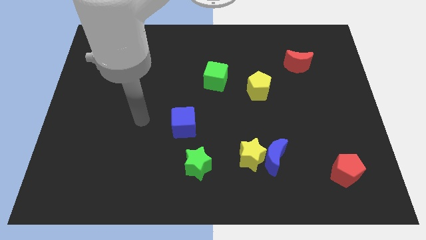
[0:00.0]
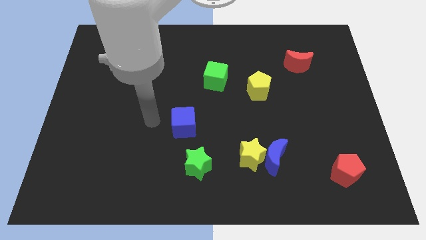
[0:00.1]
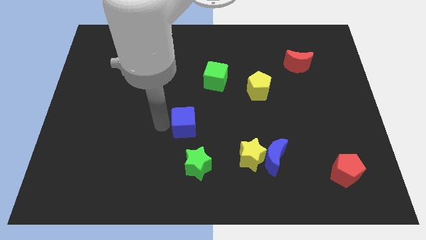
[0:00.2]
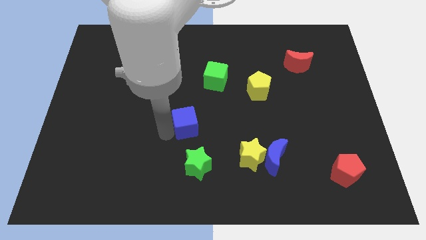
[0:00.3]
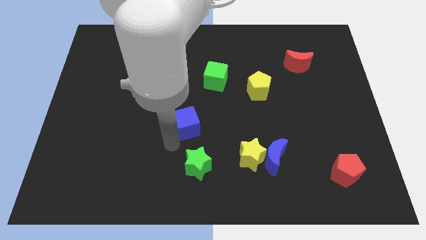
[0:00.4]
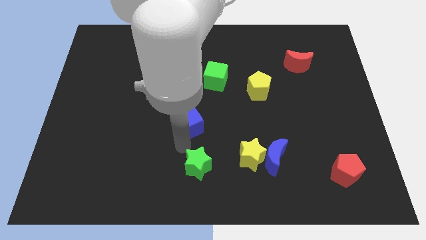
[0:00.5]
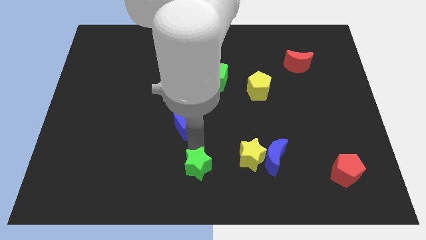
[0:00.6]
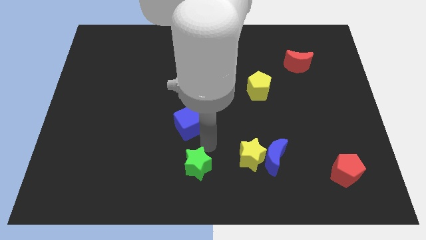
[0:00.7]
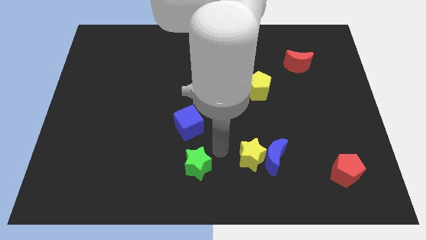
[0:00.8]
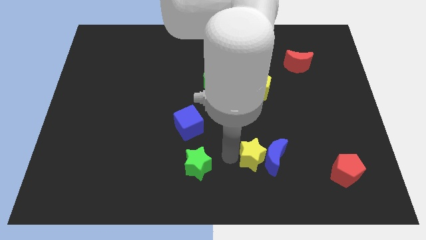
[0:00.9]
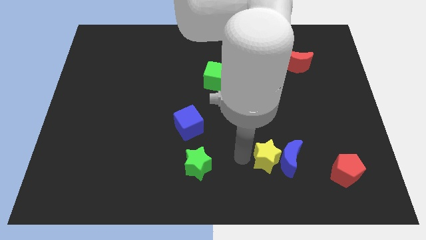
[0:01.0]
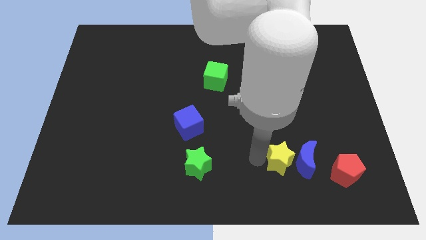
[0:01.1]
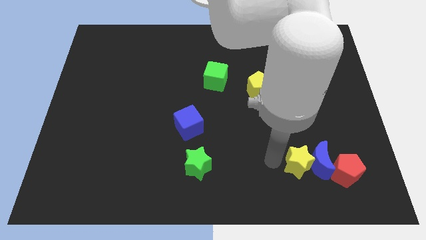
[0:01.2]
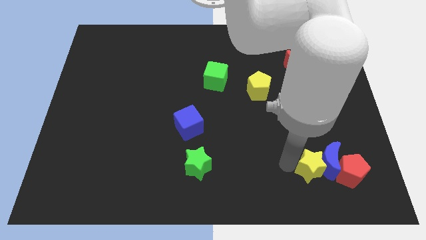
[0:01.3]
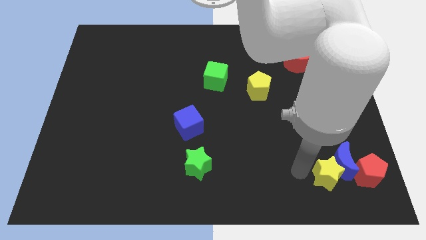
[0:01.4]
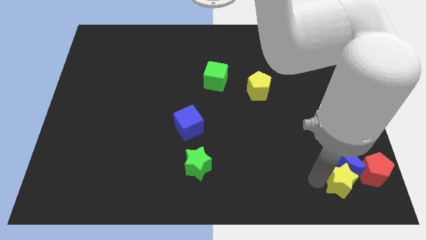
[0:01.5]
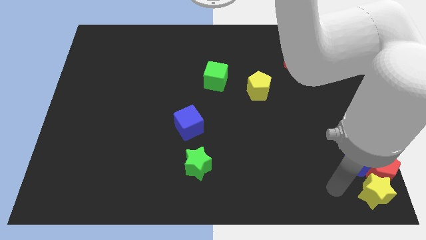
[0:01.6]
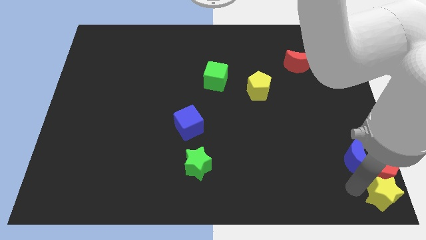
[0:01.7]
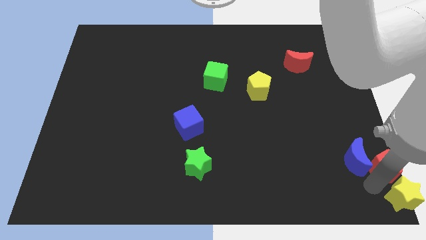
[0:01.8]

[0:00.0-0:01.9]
separate the blue moon from the yellow star

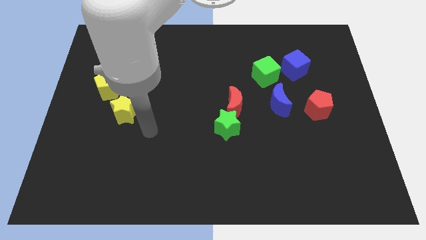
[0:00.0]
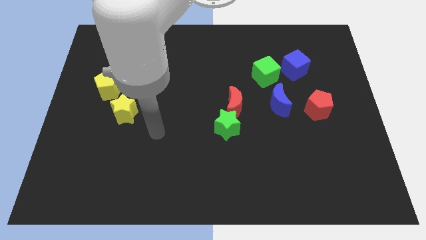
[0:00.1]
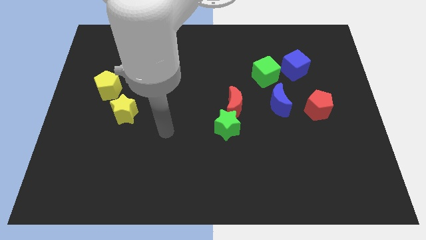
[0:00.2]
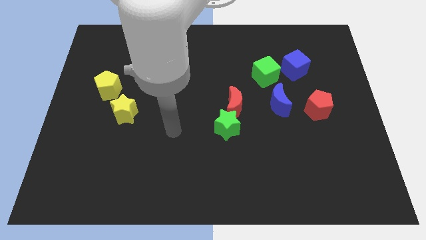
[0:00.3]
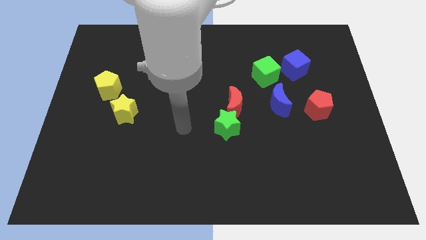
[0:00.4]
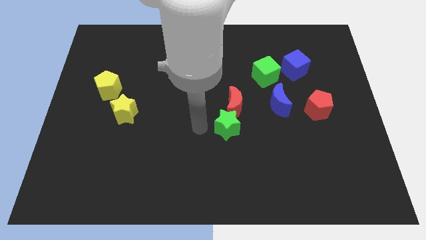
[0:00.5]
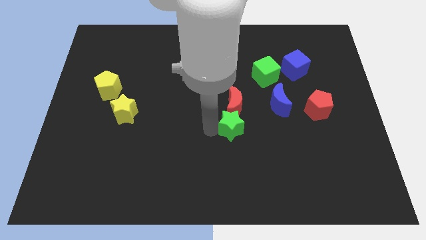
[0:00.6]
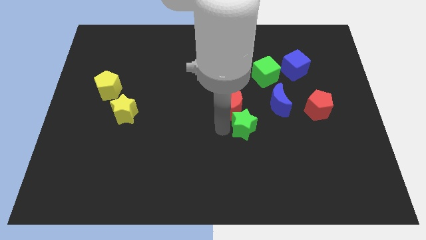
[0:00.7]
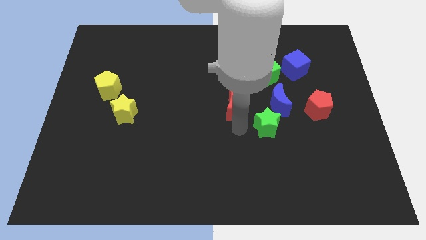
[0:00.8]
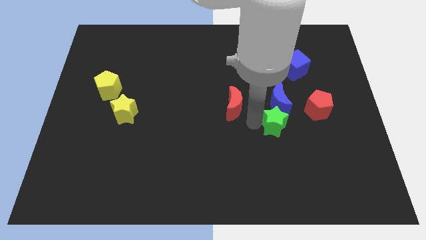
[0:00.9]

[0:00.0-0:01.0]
separate the red moon from the green star

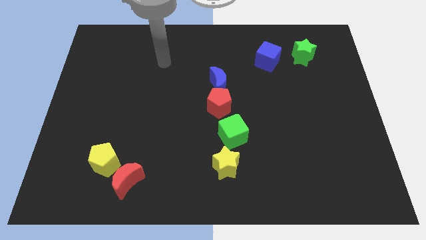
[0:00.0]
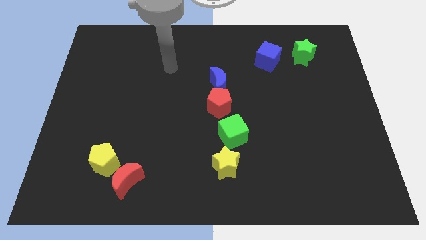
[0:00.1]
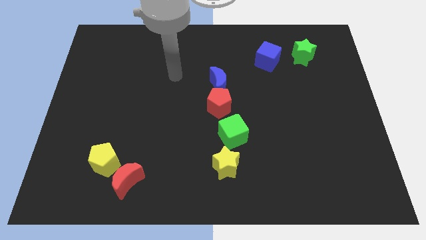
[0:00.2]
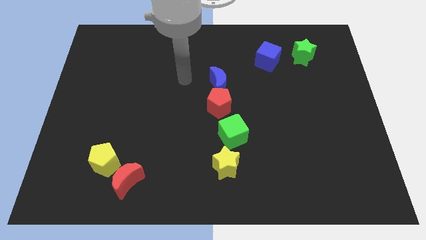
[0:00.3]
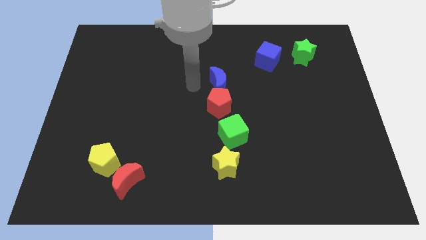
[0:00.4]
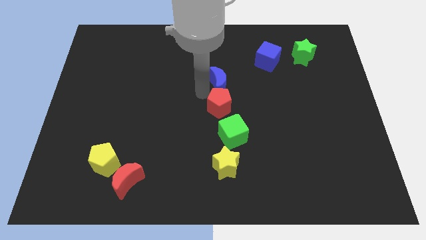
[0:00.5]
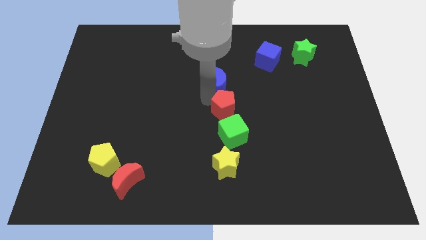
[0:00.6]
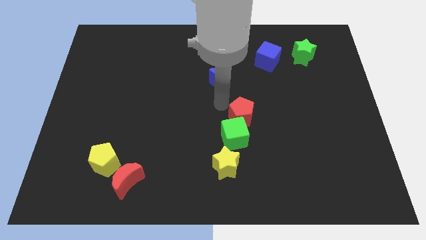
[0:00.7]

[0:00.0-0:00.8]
pull the blue moon apart from the red pentagon

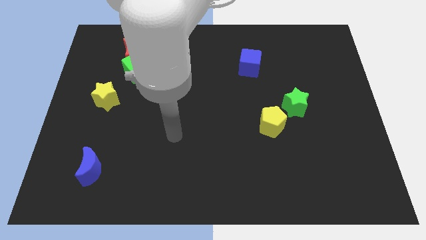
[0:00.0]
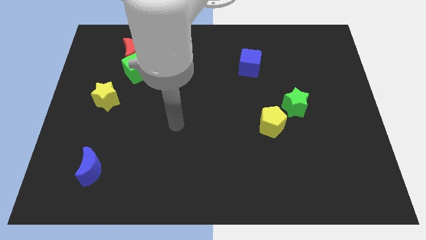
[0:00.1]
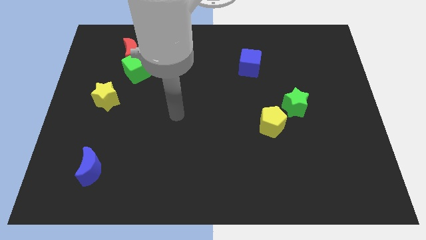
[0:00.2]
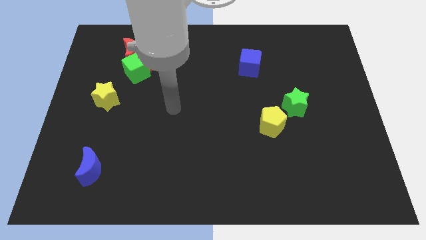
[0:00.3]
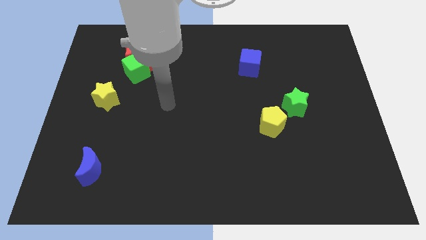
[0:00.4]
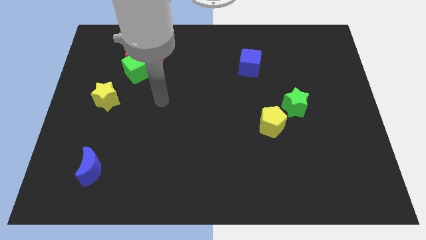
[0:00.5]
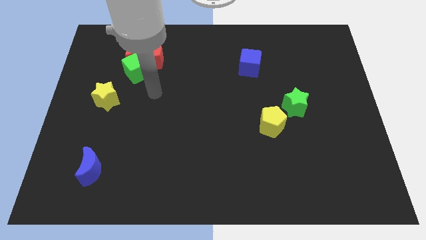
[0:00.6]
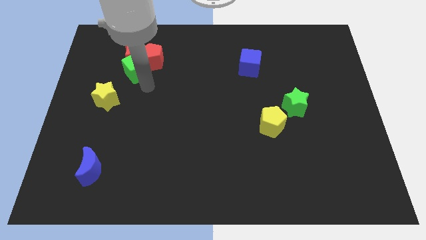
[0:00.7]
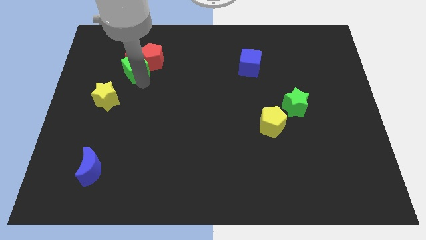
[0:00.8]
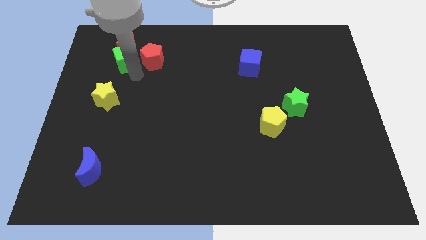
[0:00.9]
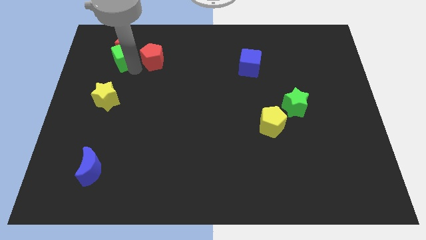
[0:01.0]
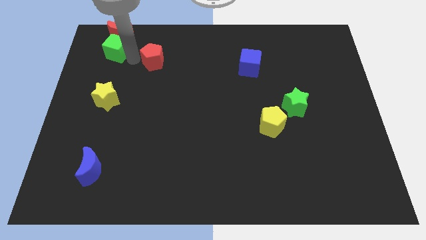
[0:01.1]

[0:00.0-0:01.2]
move the red pentagon away from the green cube and red moon

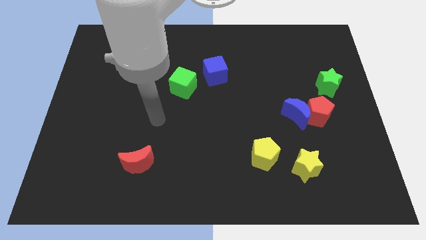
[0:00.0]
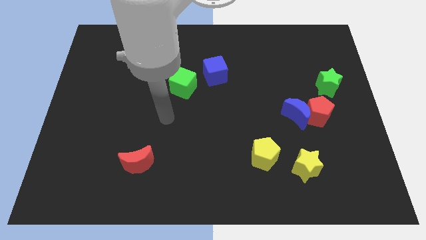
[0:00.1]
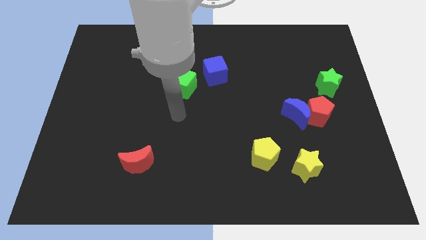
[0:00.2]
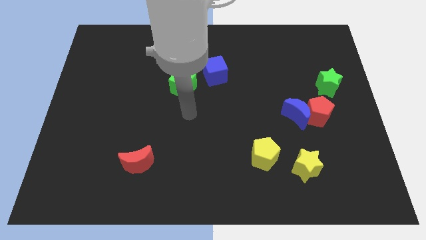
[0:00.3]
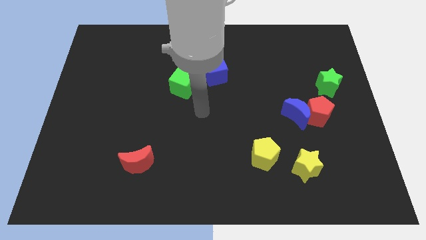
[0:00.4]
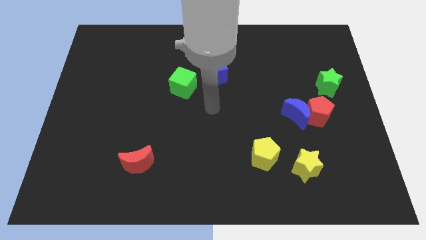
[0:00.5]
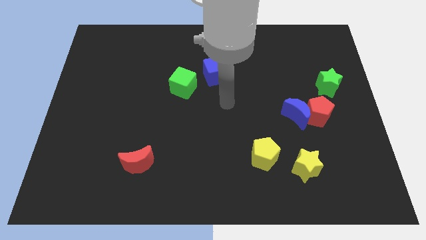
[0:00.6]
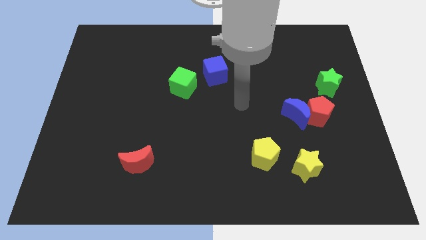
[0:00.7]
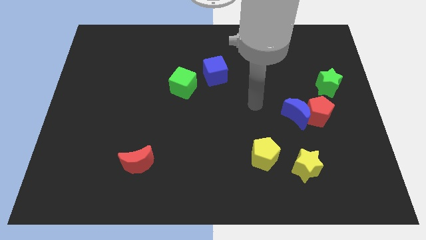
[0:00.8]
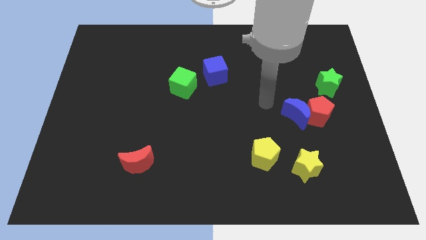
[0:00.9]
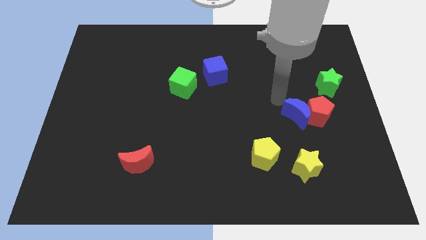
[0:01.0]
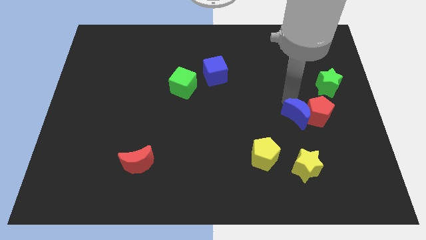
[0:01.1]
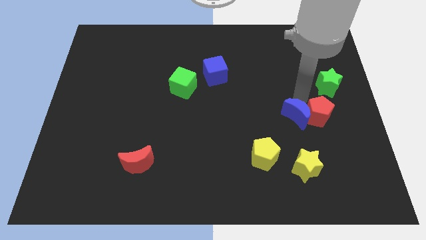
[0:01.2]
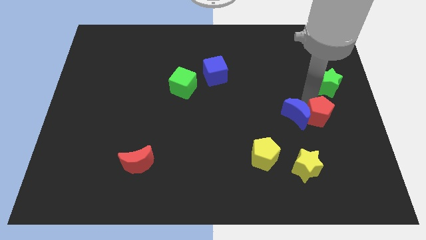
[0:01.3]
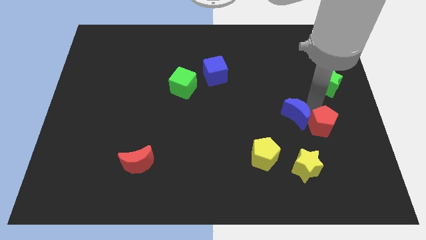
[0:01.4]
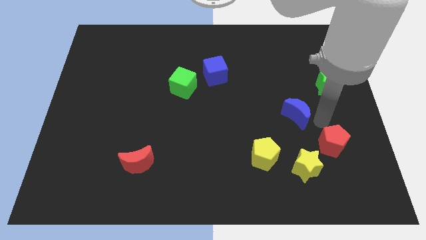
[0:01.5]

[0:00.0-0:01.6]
move the blue moon away from the red pentagon

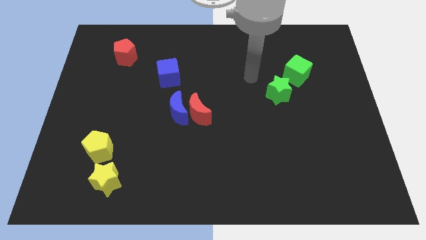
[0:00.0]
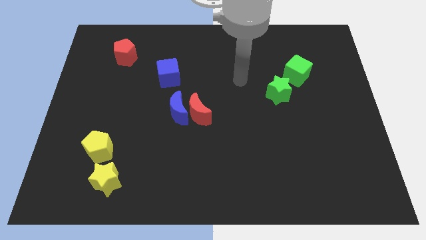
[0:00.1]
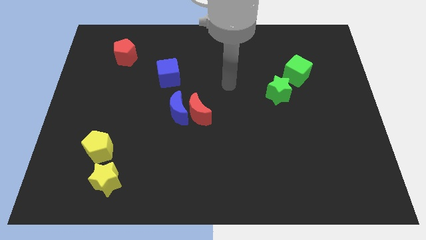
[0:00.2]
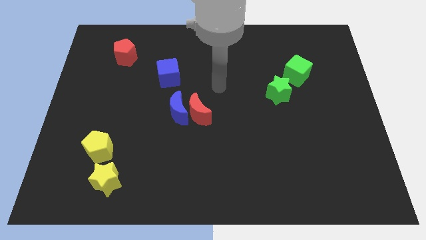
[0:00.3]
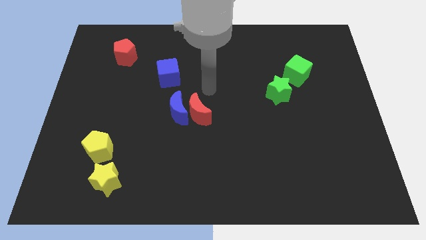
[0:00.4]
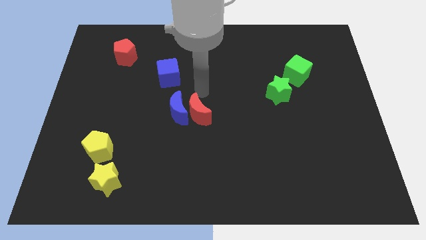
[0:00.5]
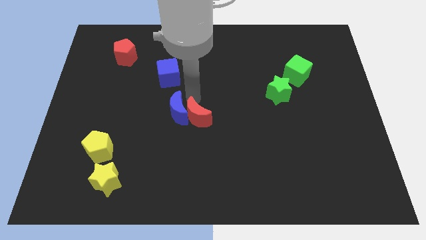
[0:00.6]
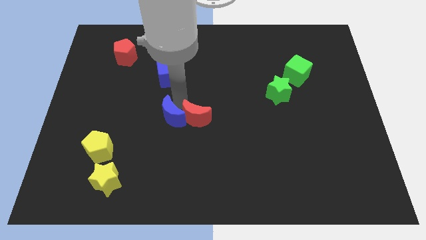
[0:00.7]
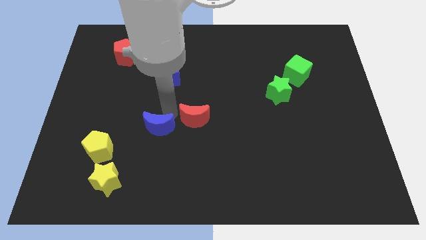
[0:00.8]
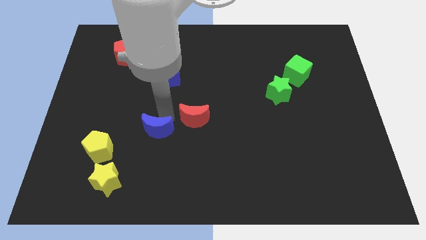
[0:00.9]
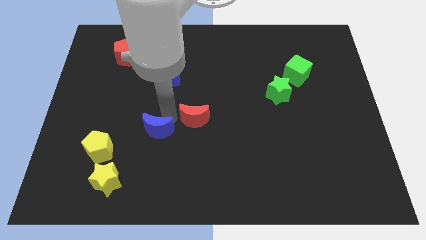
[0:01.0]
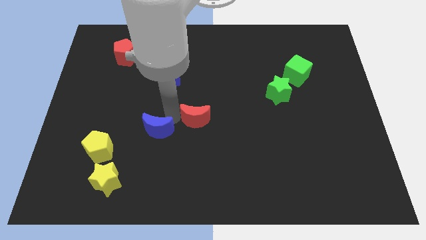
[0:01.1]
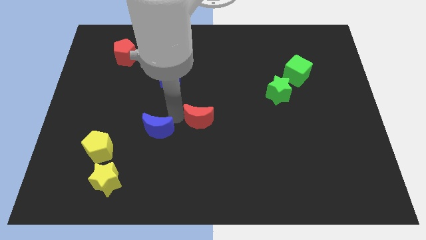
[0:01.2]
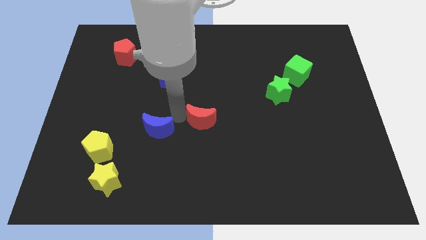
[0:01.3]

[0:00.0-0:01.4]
pull the red moon apart from the blue moon

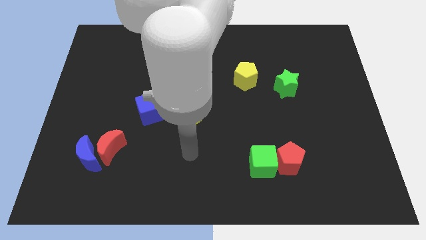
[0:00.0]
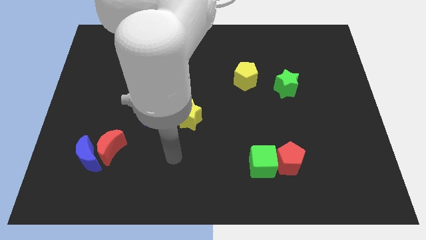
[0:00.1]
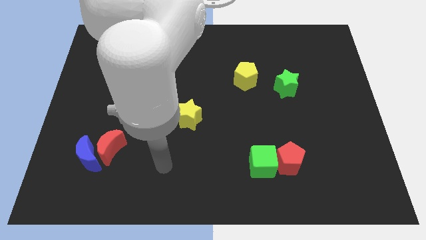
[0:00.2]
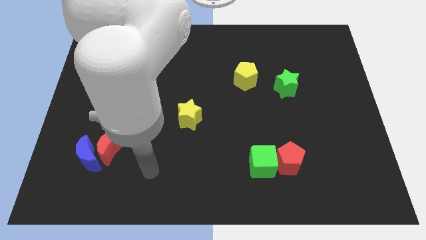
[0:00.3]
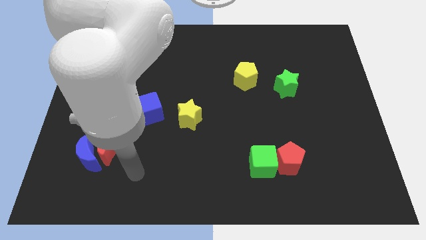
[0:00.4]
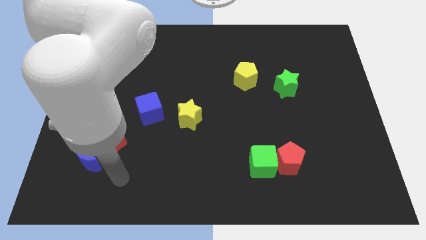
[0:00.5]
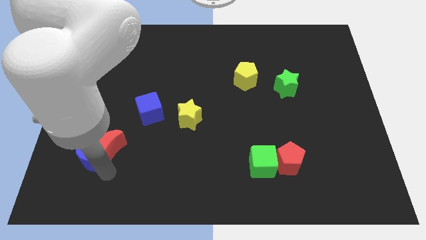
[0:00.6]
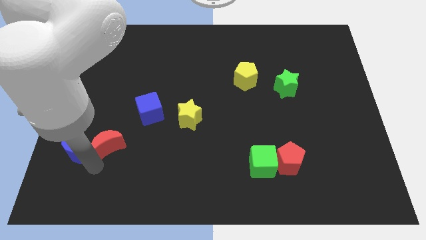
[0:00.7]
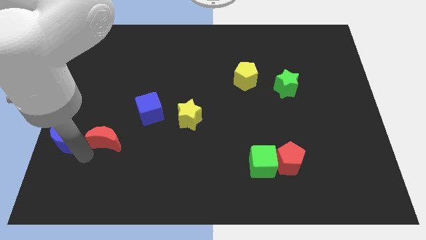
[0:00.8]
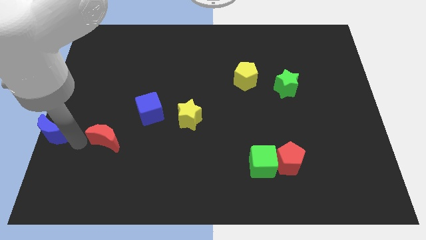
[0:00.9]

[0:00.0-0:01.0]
move the red moon away from the blue moon

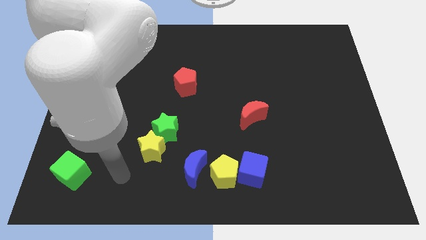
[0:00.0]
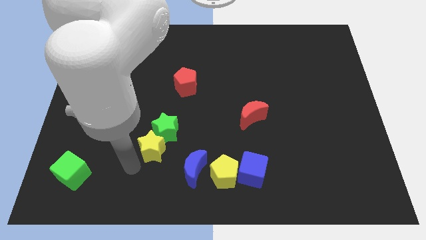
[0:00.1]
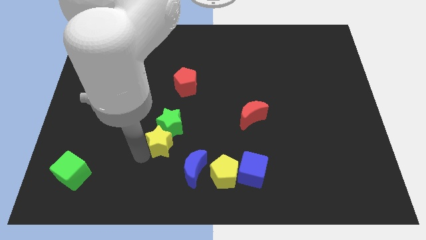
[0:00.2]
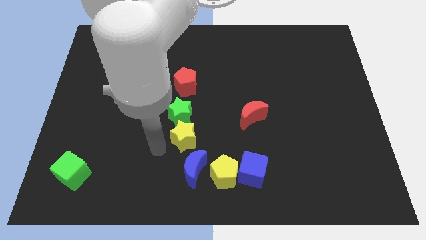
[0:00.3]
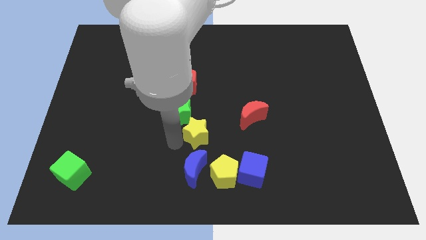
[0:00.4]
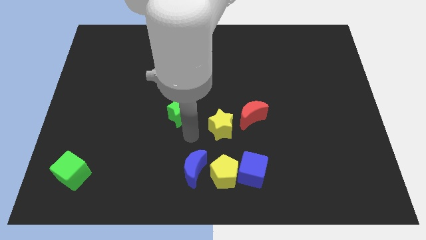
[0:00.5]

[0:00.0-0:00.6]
pull the green star apart from the yellow star
